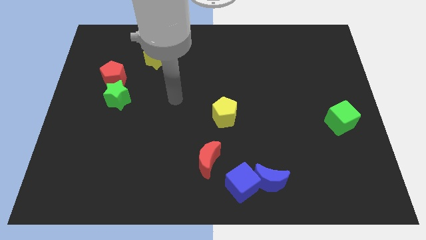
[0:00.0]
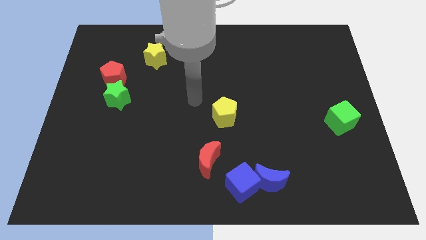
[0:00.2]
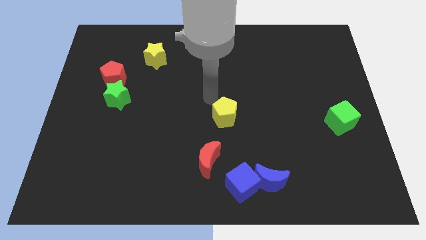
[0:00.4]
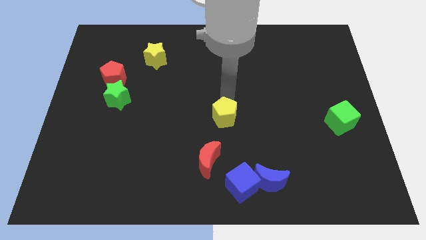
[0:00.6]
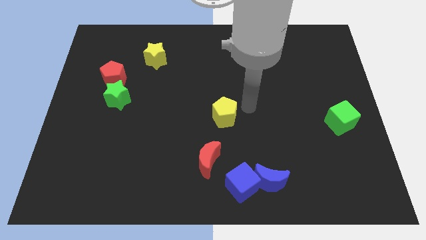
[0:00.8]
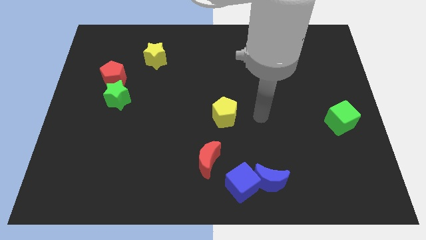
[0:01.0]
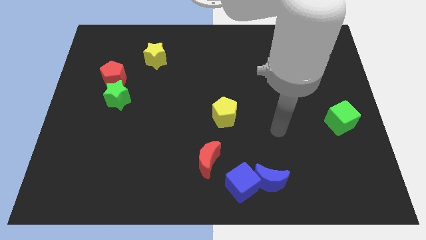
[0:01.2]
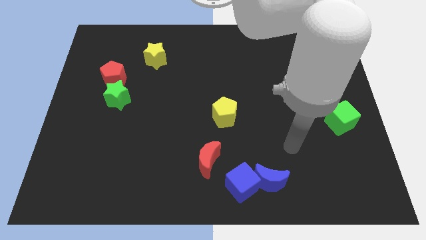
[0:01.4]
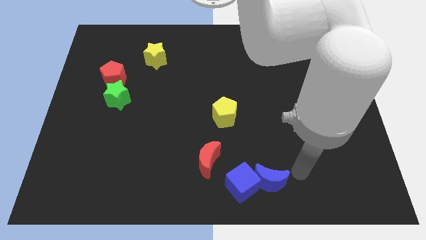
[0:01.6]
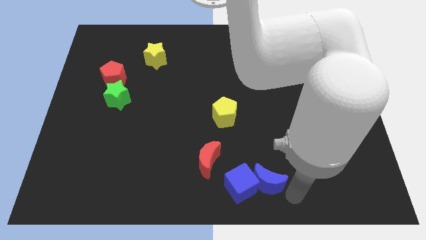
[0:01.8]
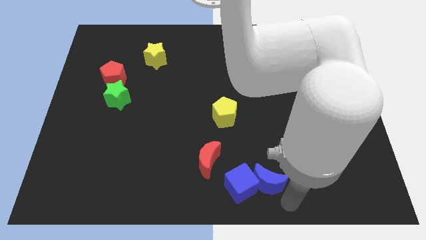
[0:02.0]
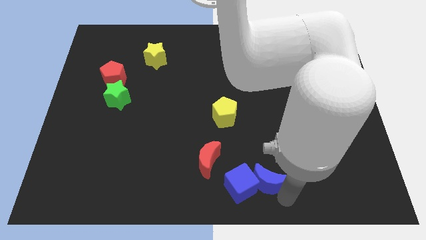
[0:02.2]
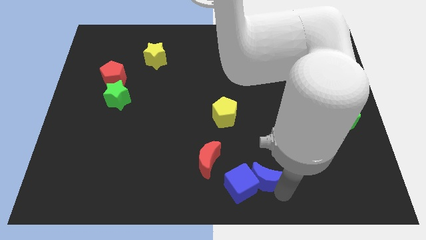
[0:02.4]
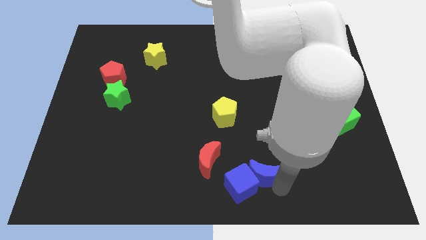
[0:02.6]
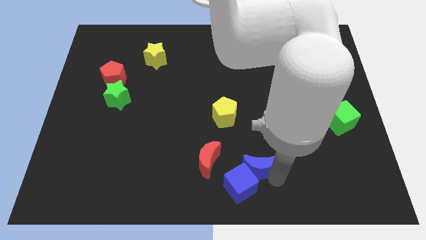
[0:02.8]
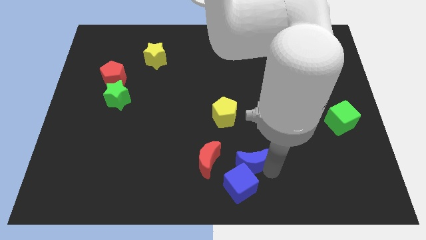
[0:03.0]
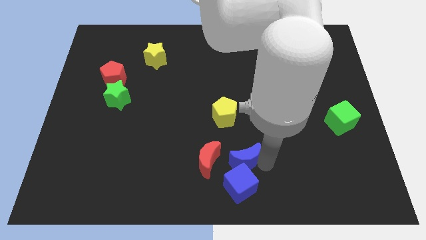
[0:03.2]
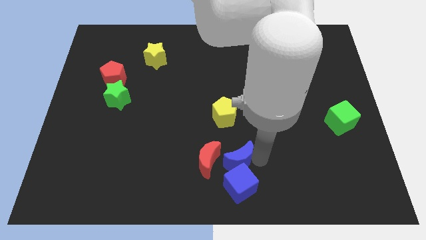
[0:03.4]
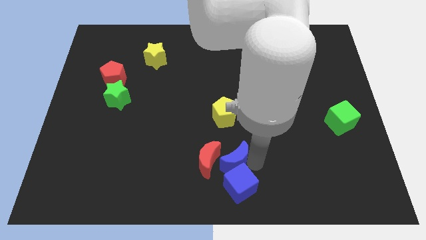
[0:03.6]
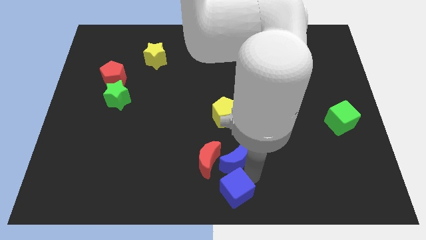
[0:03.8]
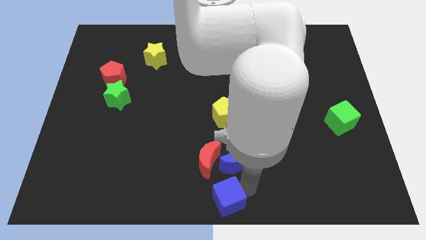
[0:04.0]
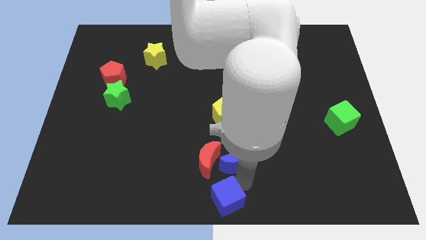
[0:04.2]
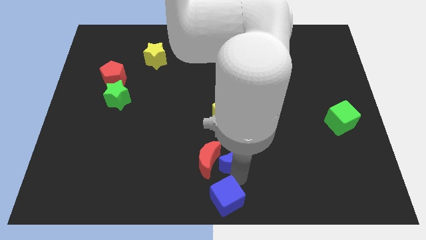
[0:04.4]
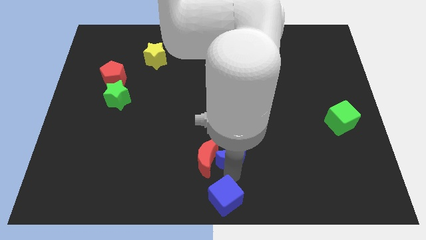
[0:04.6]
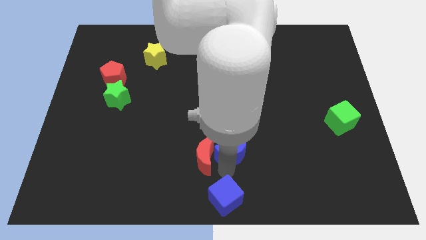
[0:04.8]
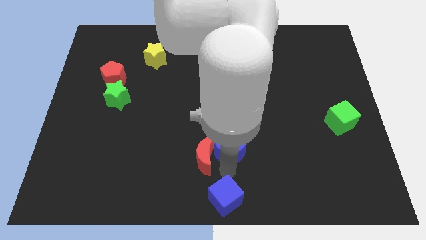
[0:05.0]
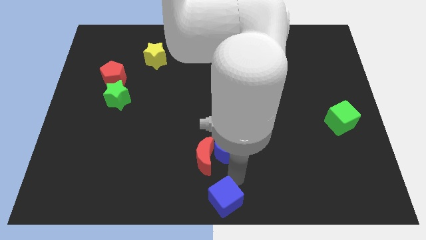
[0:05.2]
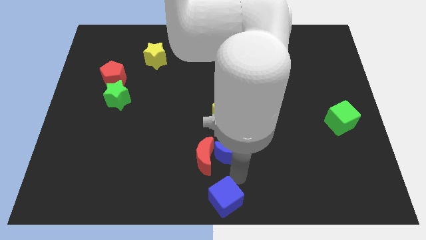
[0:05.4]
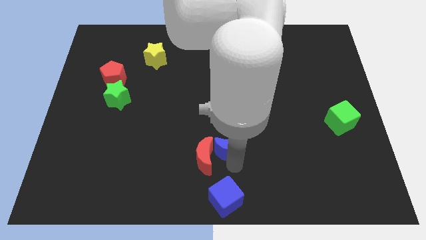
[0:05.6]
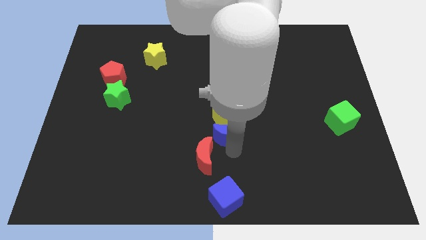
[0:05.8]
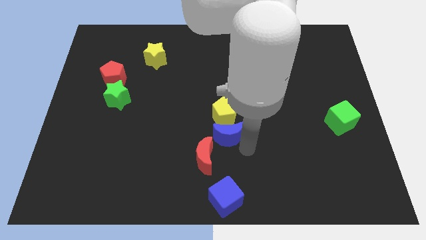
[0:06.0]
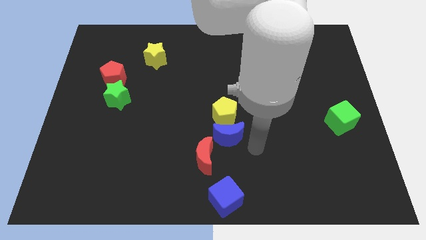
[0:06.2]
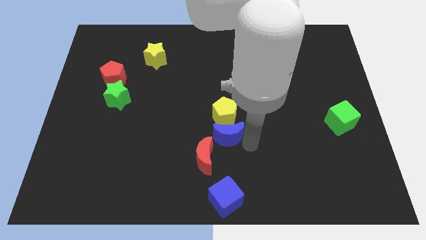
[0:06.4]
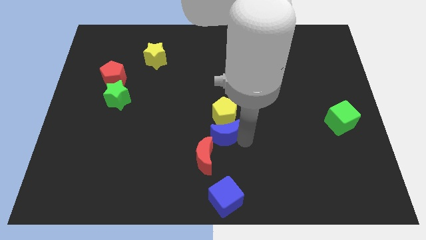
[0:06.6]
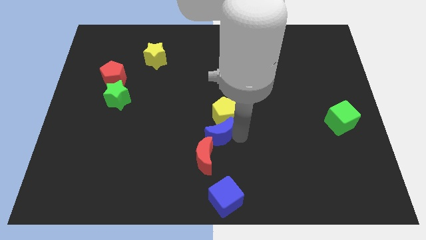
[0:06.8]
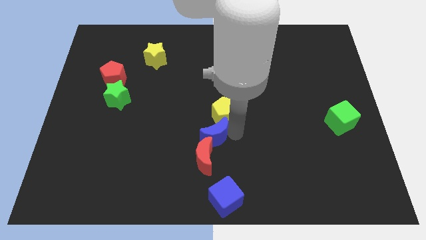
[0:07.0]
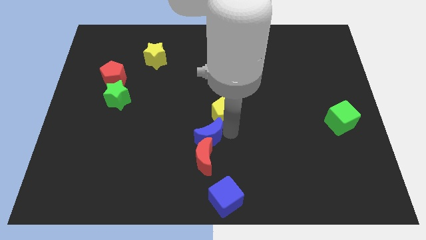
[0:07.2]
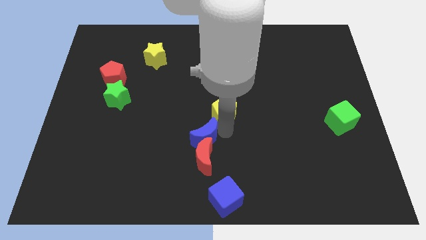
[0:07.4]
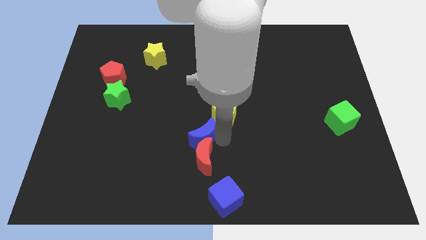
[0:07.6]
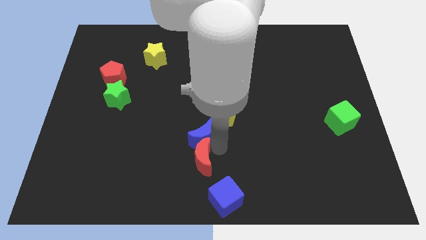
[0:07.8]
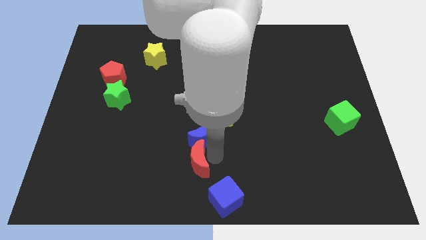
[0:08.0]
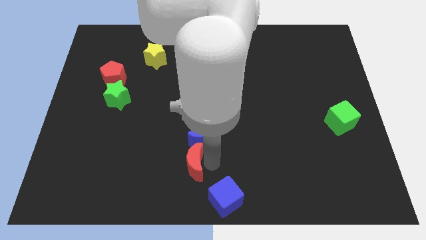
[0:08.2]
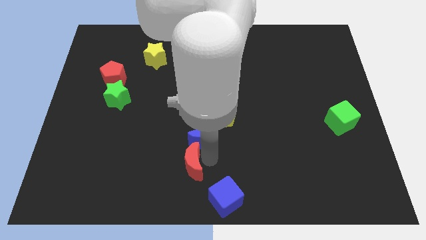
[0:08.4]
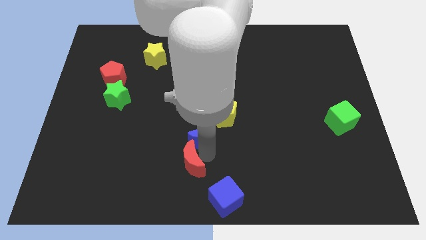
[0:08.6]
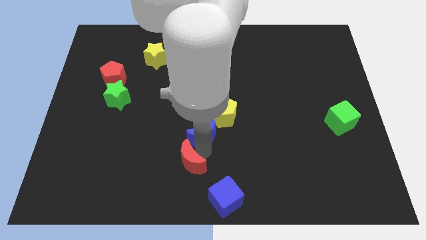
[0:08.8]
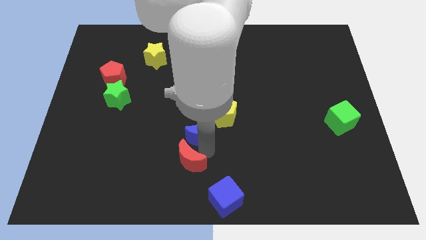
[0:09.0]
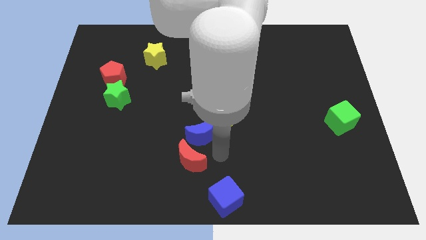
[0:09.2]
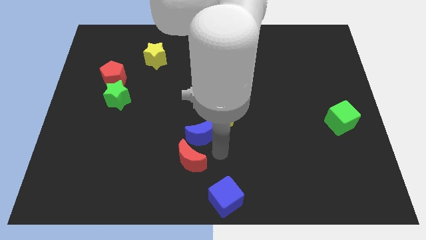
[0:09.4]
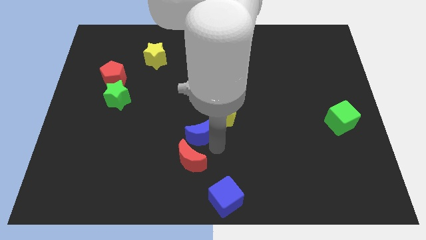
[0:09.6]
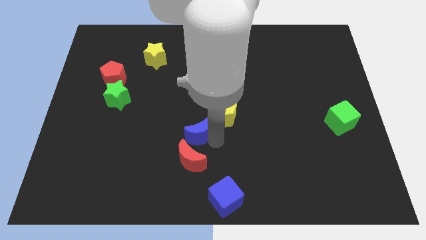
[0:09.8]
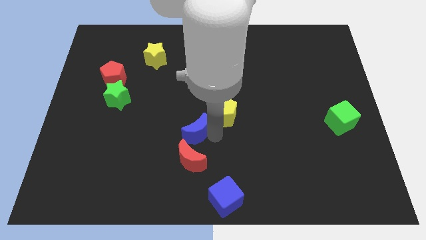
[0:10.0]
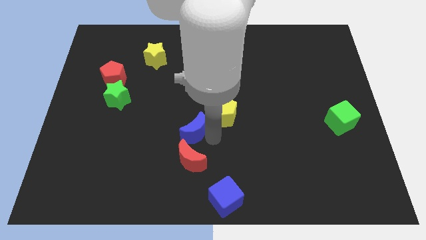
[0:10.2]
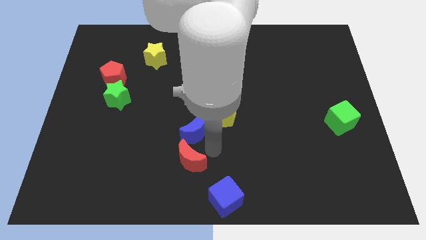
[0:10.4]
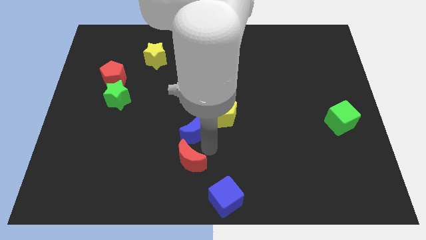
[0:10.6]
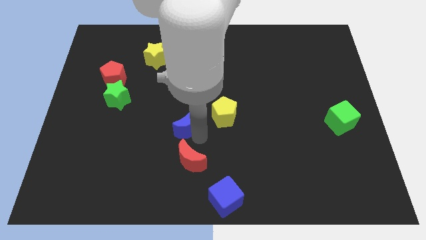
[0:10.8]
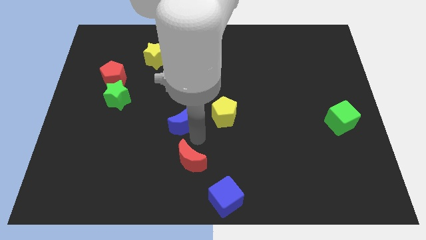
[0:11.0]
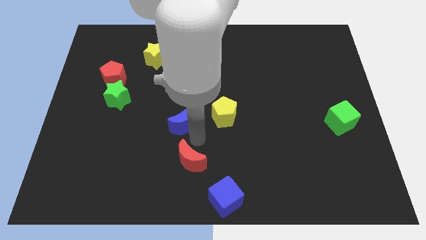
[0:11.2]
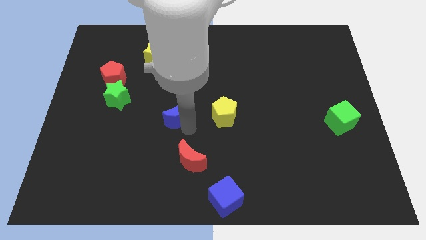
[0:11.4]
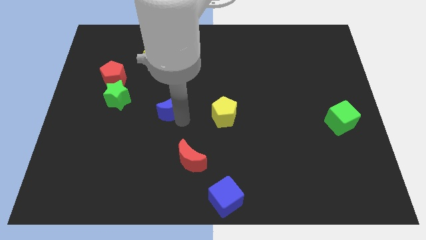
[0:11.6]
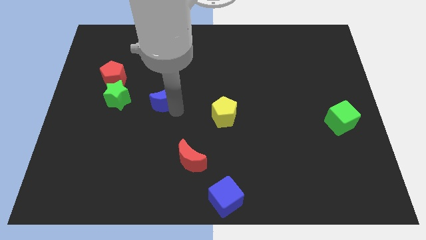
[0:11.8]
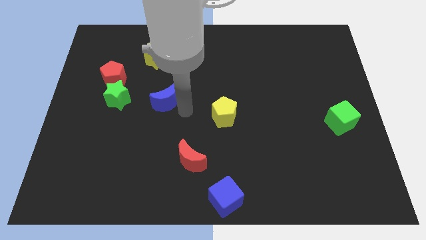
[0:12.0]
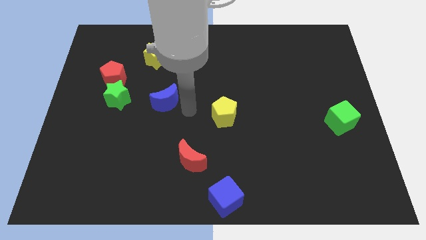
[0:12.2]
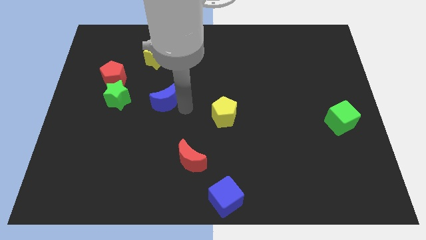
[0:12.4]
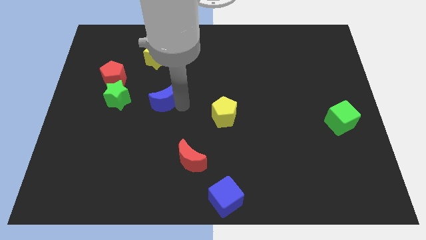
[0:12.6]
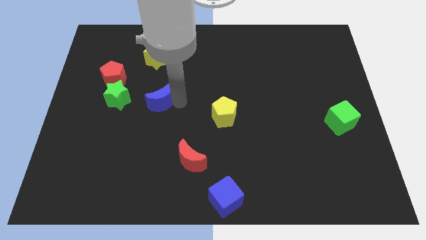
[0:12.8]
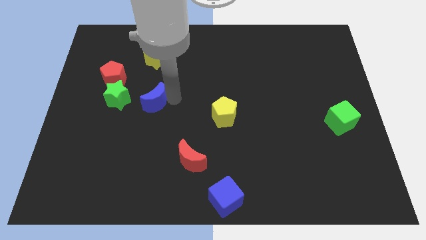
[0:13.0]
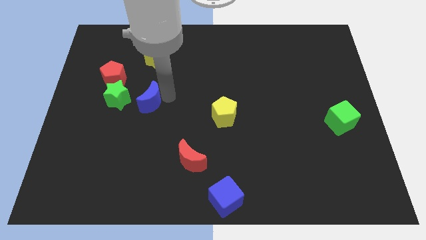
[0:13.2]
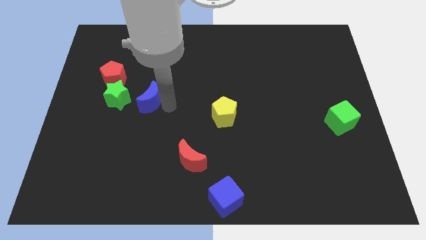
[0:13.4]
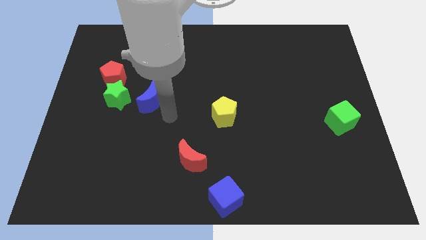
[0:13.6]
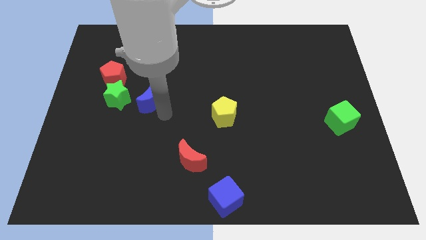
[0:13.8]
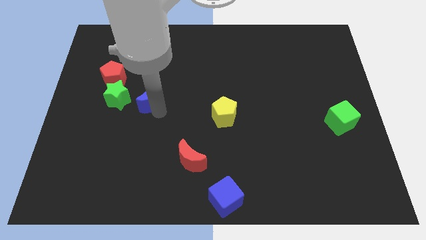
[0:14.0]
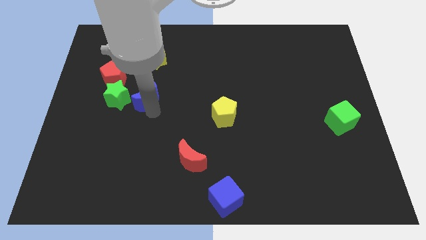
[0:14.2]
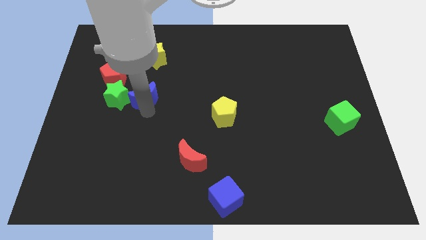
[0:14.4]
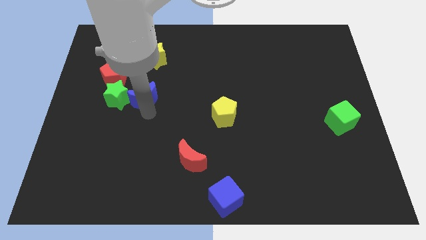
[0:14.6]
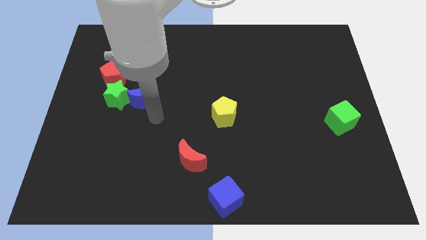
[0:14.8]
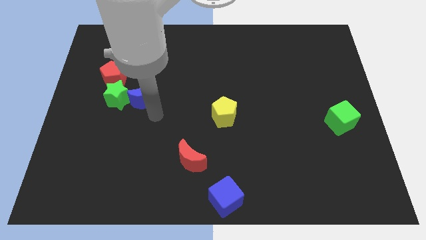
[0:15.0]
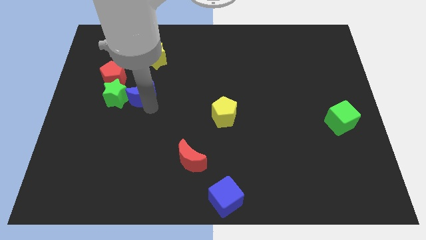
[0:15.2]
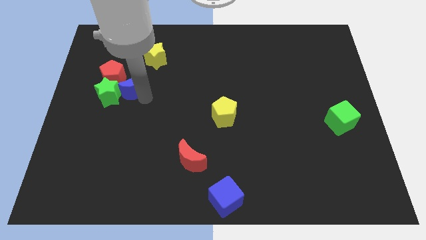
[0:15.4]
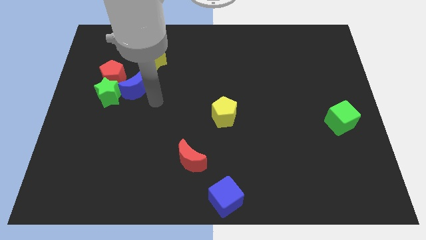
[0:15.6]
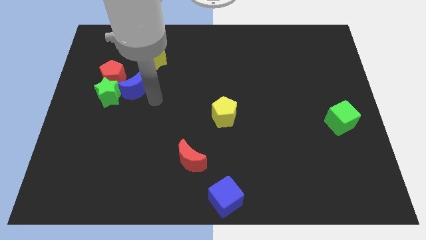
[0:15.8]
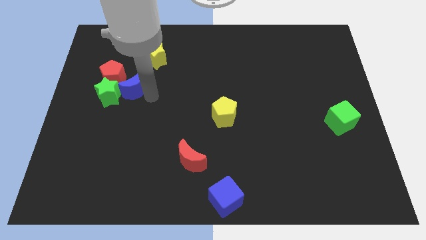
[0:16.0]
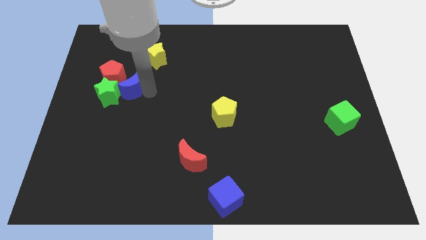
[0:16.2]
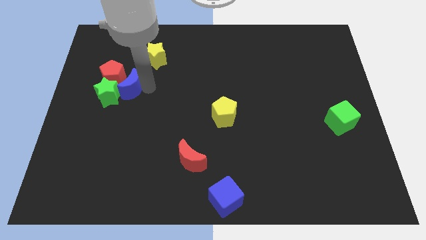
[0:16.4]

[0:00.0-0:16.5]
slide the blue moon to the red pentagon
